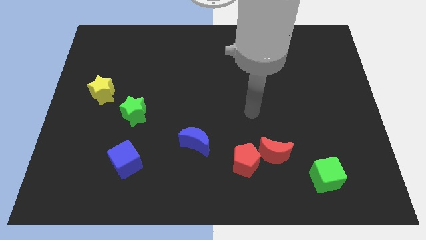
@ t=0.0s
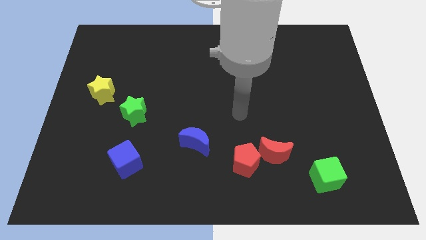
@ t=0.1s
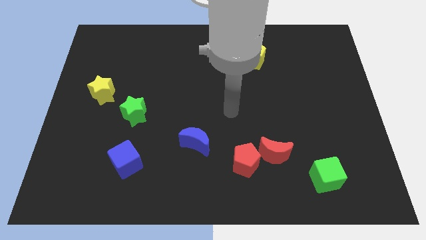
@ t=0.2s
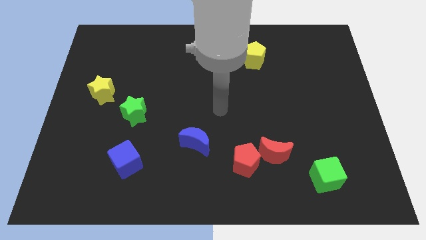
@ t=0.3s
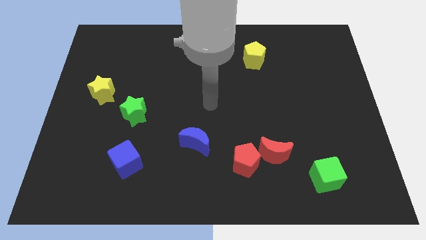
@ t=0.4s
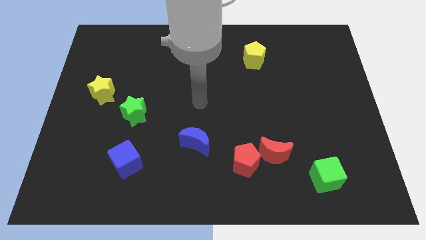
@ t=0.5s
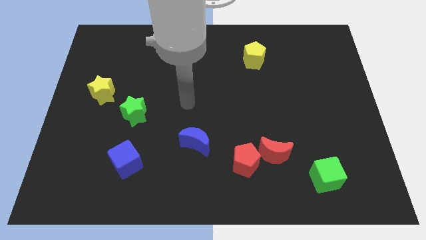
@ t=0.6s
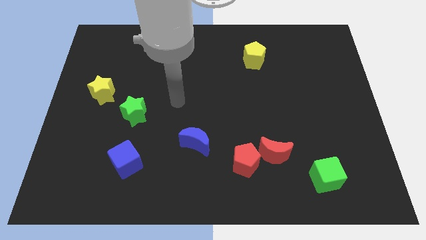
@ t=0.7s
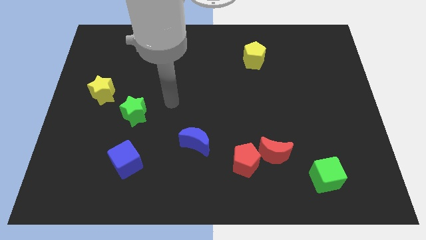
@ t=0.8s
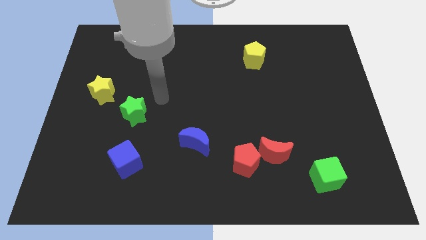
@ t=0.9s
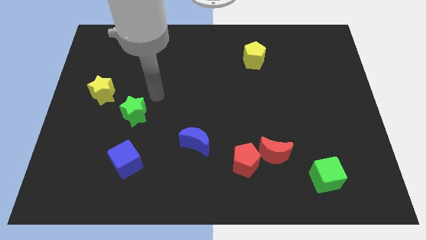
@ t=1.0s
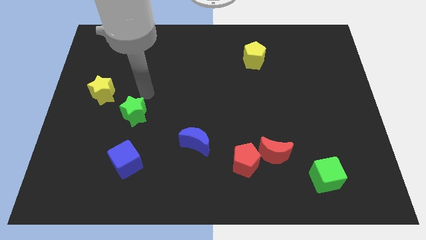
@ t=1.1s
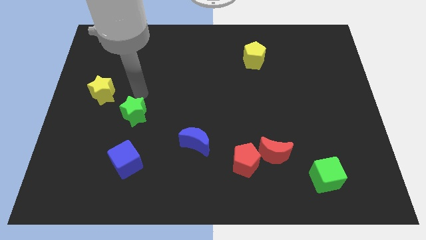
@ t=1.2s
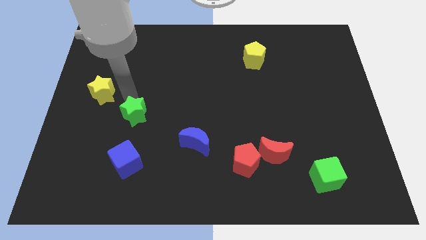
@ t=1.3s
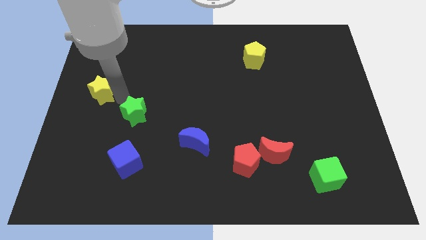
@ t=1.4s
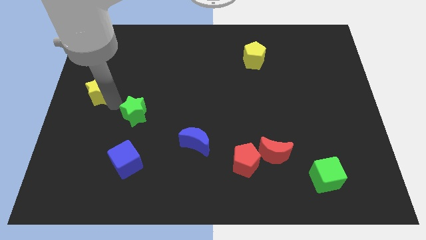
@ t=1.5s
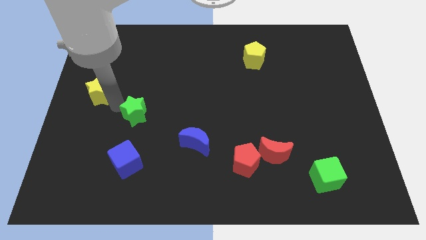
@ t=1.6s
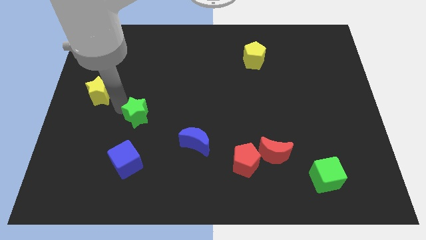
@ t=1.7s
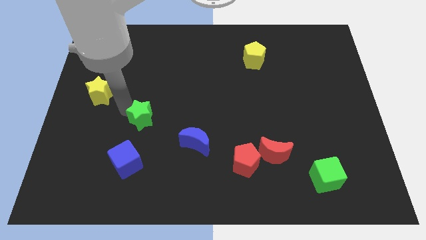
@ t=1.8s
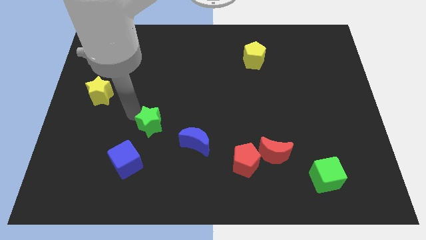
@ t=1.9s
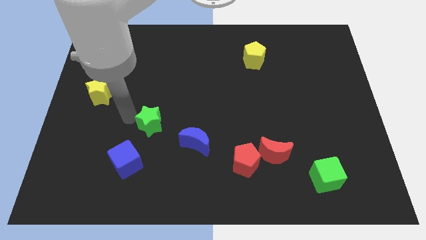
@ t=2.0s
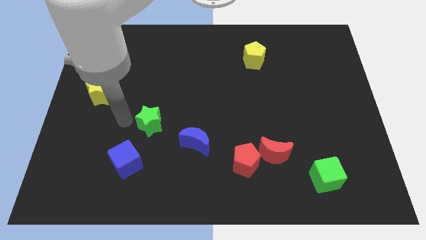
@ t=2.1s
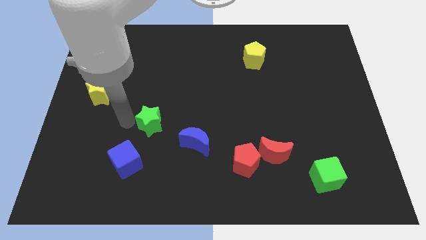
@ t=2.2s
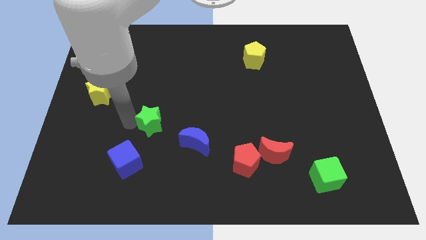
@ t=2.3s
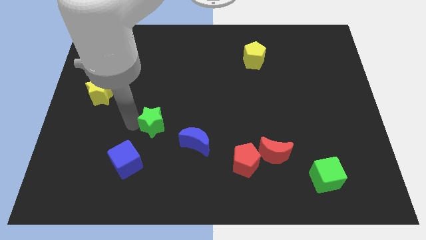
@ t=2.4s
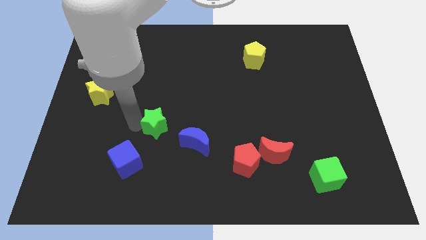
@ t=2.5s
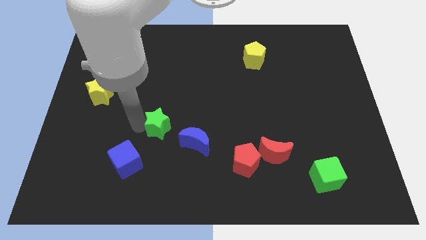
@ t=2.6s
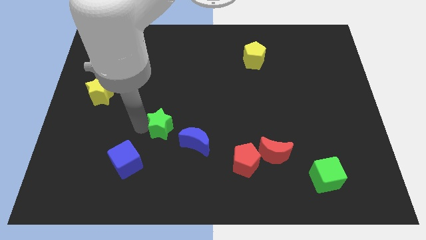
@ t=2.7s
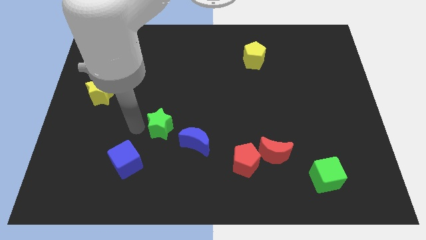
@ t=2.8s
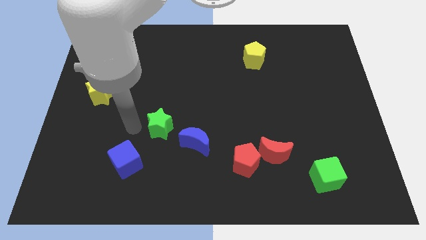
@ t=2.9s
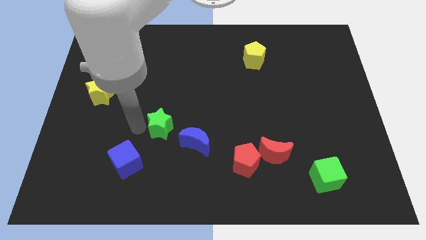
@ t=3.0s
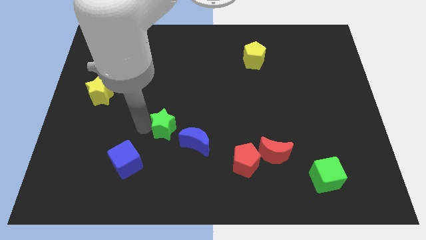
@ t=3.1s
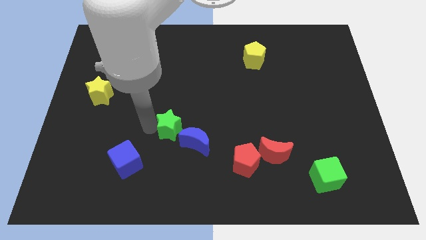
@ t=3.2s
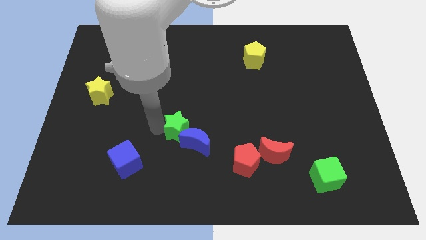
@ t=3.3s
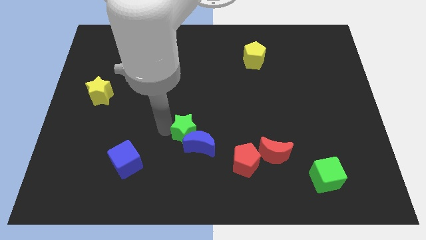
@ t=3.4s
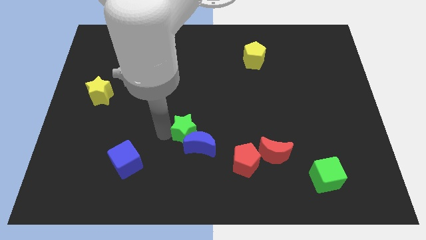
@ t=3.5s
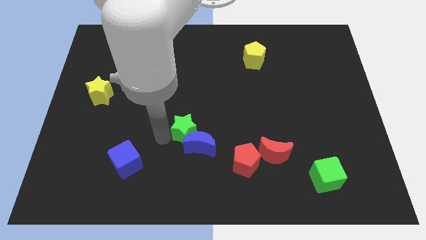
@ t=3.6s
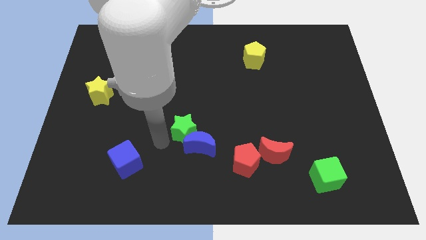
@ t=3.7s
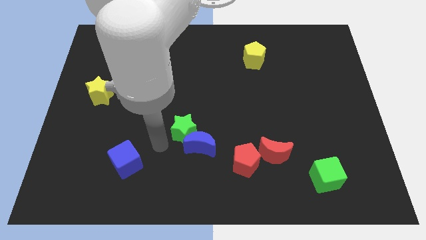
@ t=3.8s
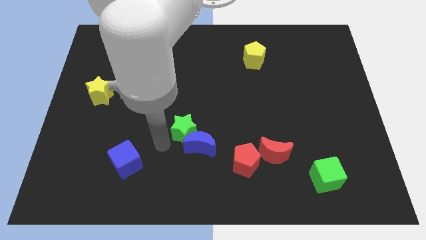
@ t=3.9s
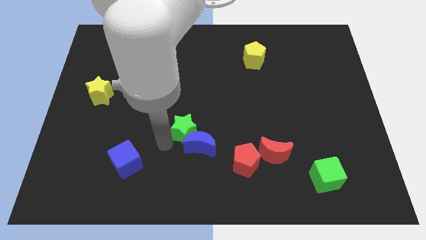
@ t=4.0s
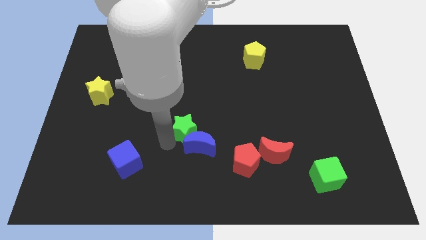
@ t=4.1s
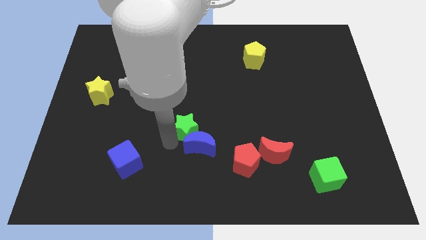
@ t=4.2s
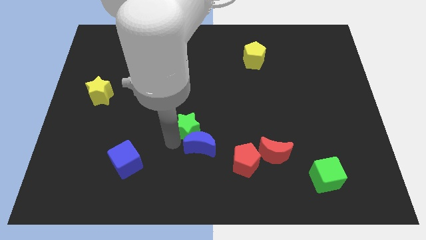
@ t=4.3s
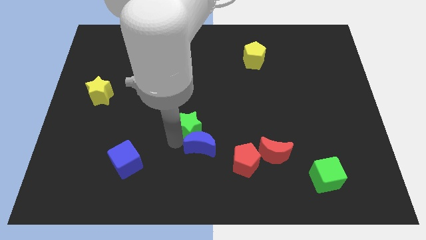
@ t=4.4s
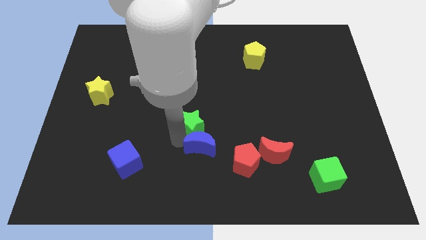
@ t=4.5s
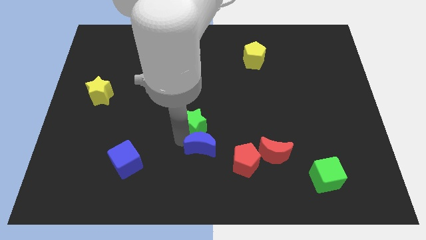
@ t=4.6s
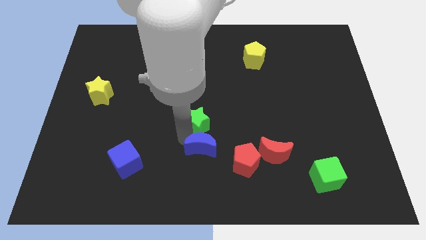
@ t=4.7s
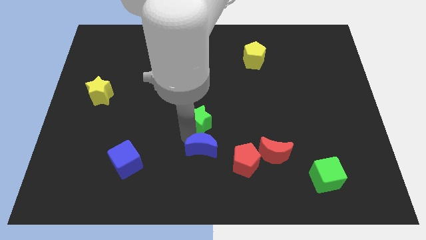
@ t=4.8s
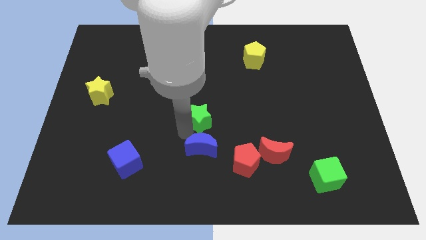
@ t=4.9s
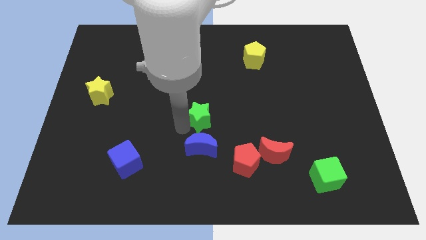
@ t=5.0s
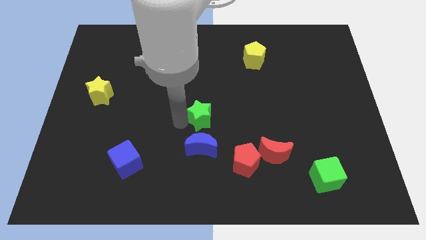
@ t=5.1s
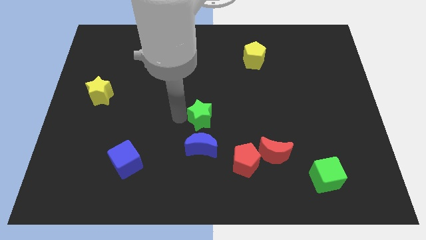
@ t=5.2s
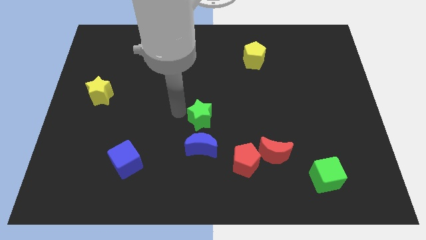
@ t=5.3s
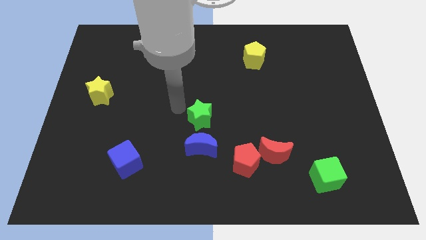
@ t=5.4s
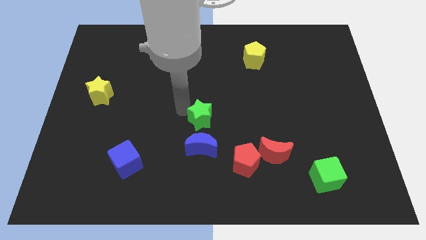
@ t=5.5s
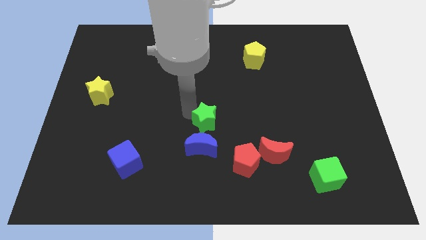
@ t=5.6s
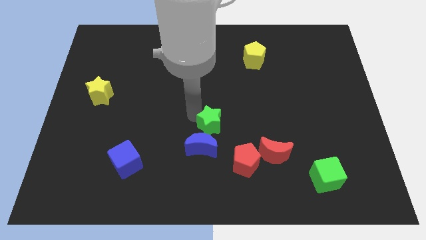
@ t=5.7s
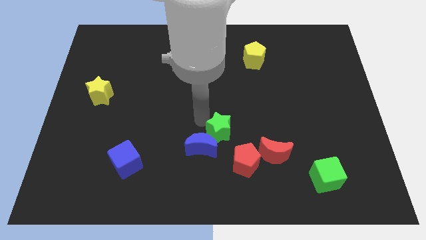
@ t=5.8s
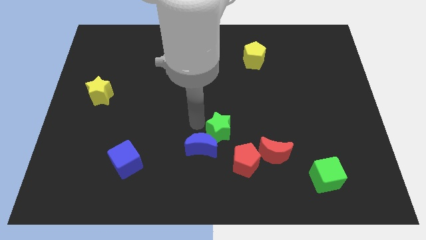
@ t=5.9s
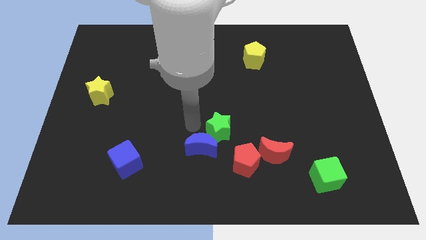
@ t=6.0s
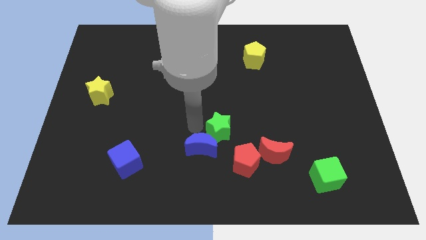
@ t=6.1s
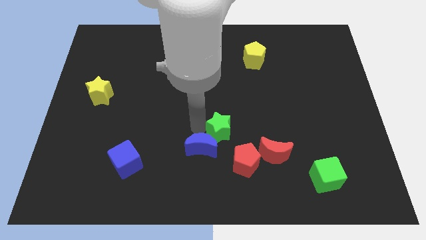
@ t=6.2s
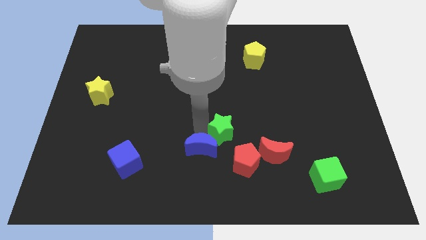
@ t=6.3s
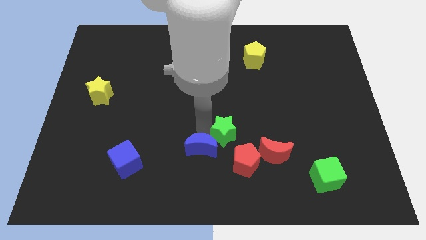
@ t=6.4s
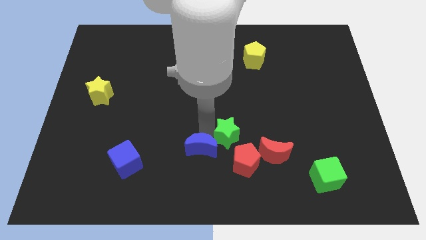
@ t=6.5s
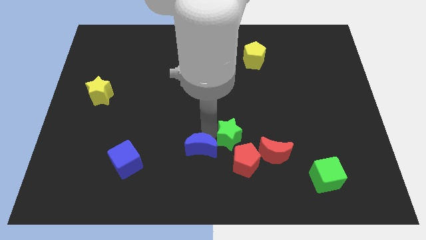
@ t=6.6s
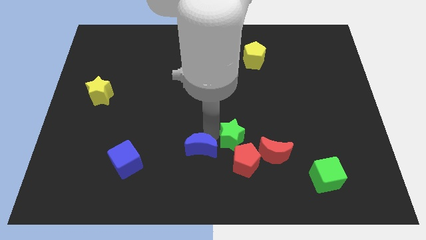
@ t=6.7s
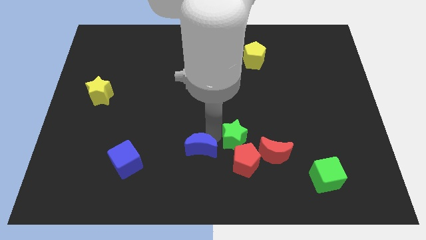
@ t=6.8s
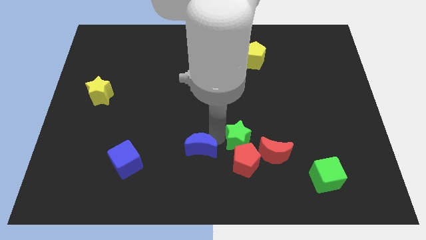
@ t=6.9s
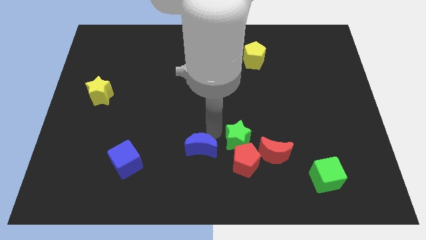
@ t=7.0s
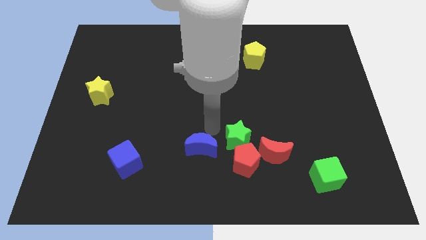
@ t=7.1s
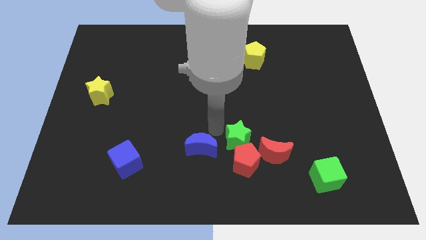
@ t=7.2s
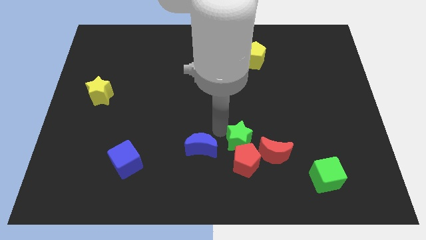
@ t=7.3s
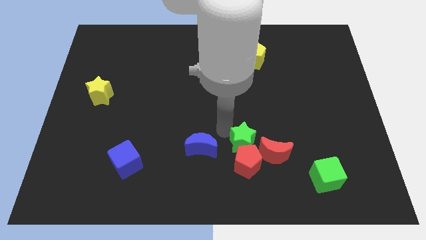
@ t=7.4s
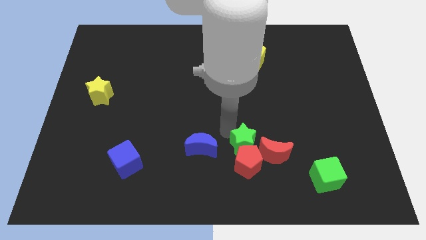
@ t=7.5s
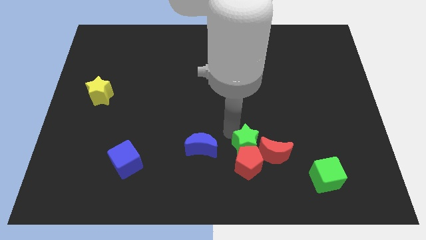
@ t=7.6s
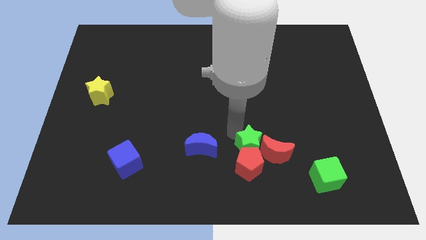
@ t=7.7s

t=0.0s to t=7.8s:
slide the green star next to the red moon

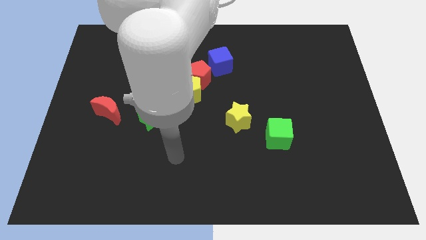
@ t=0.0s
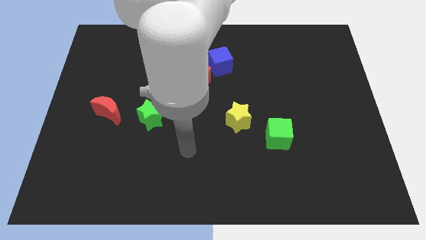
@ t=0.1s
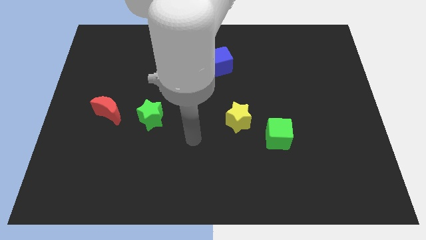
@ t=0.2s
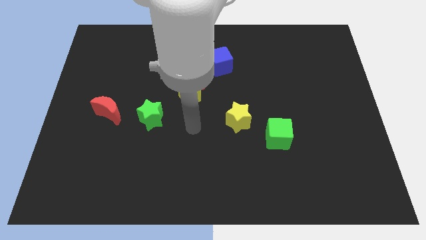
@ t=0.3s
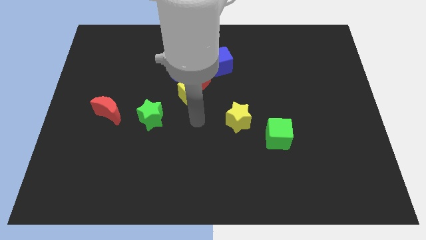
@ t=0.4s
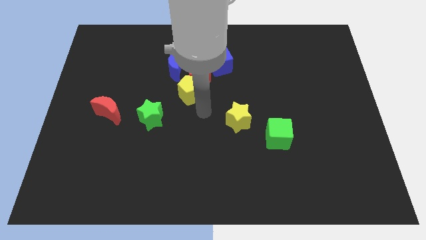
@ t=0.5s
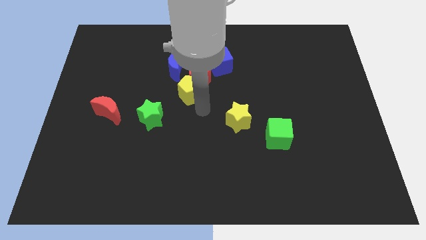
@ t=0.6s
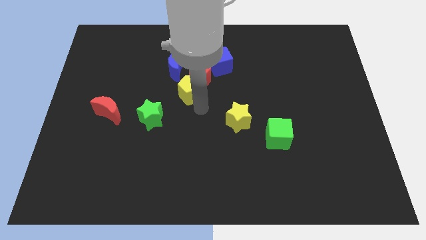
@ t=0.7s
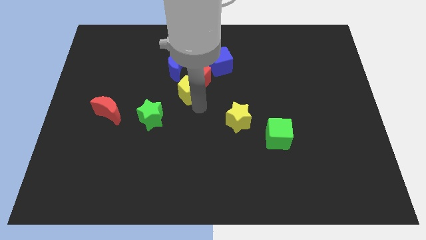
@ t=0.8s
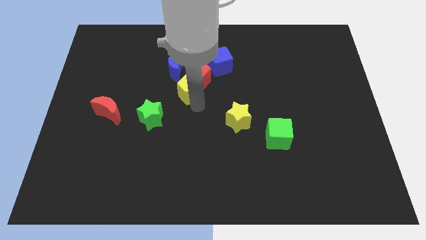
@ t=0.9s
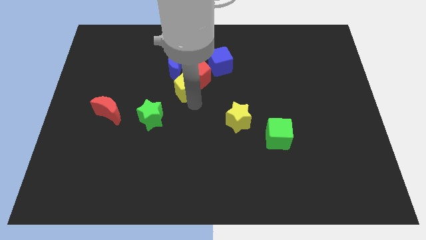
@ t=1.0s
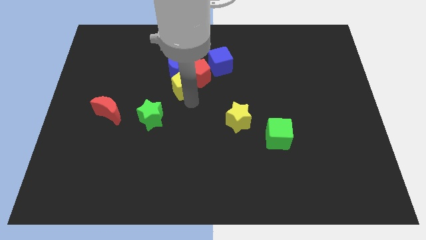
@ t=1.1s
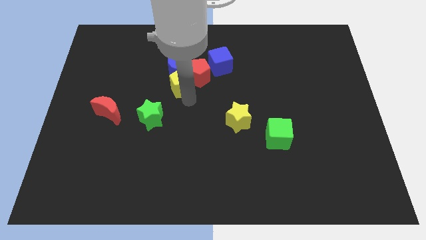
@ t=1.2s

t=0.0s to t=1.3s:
slide the yellow pentagon next to the blue moon
